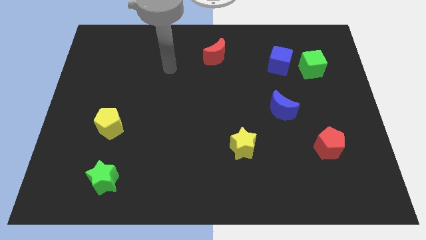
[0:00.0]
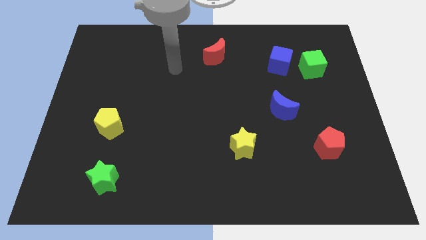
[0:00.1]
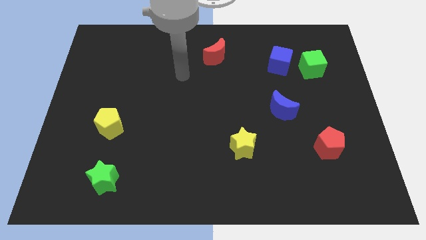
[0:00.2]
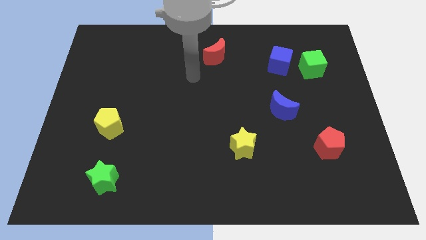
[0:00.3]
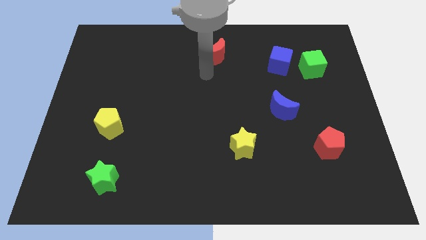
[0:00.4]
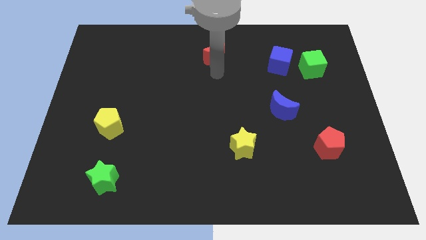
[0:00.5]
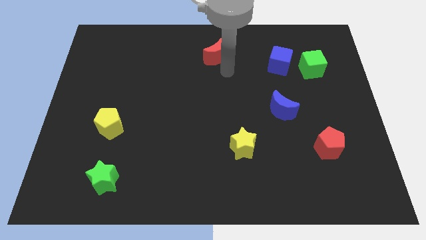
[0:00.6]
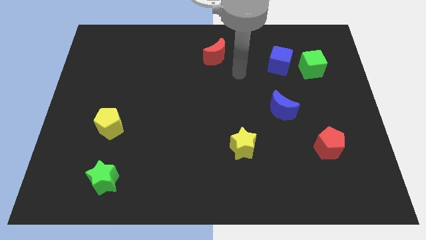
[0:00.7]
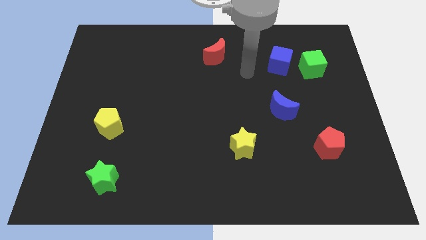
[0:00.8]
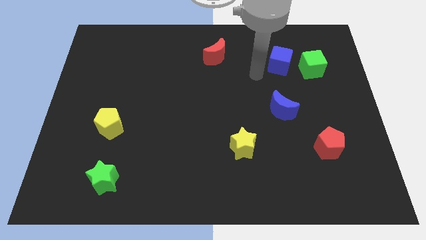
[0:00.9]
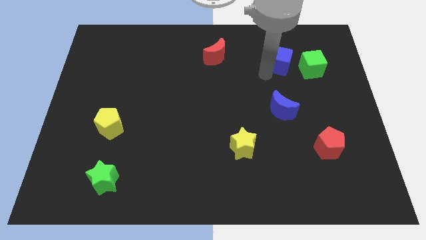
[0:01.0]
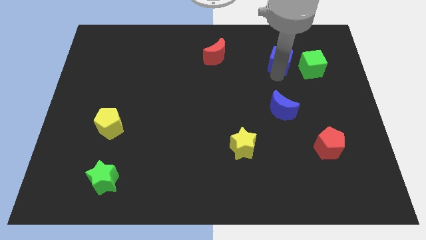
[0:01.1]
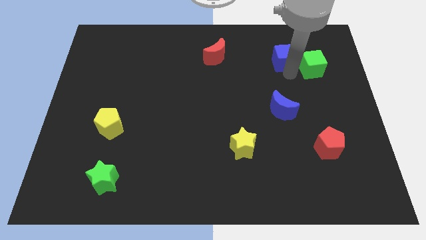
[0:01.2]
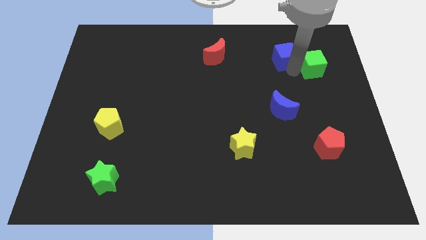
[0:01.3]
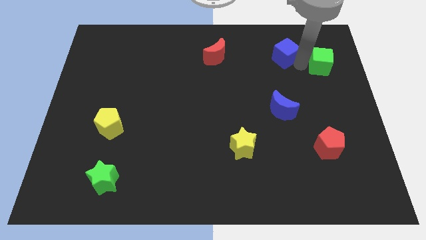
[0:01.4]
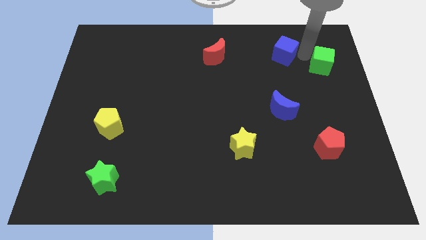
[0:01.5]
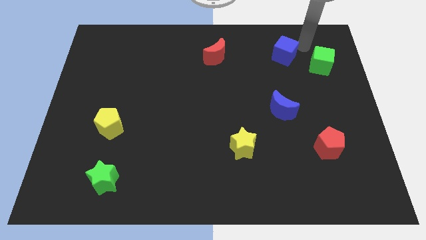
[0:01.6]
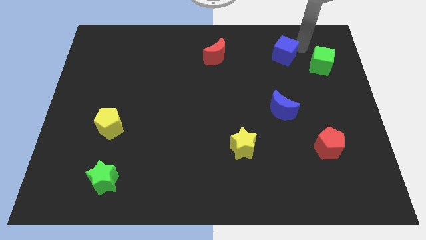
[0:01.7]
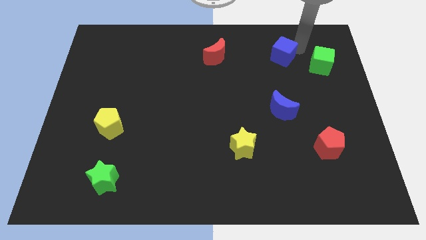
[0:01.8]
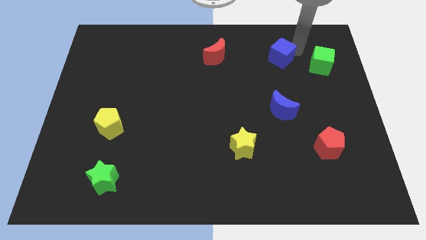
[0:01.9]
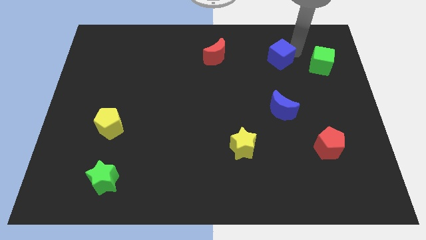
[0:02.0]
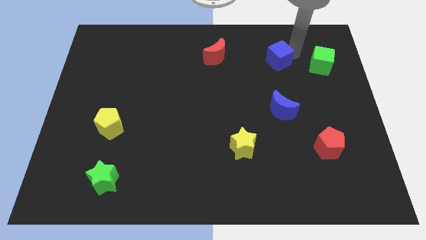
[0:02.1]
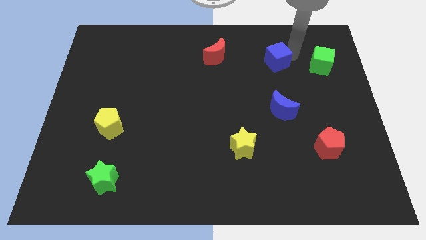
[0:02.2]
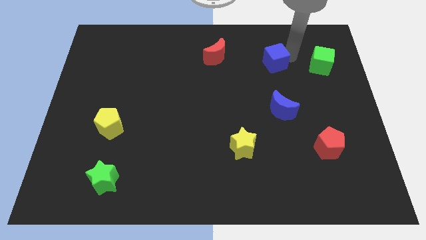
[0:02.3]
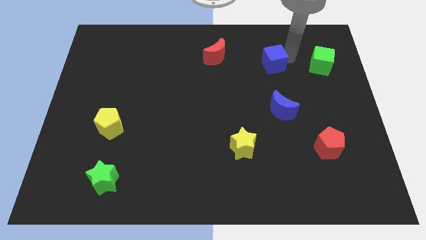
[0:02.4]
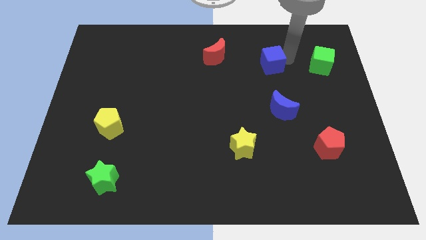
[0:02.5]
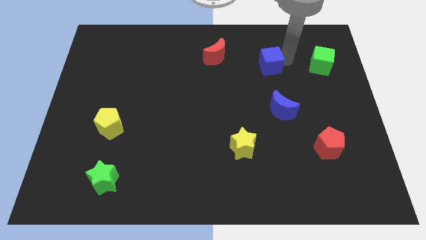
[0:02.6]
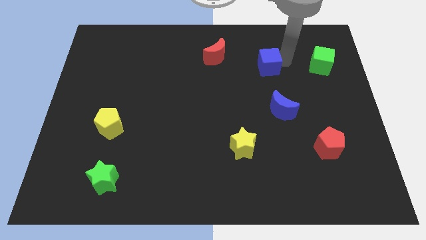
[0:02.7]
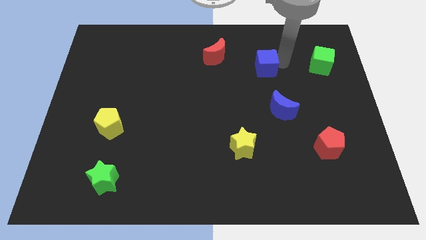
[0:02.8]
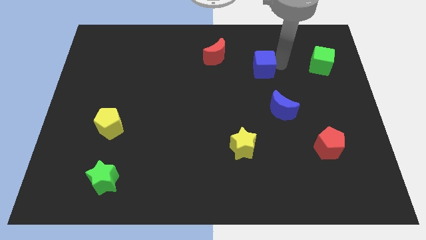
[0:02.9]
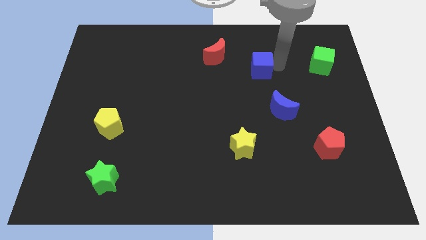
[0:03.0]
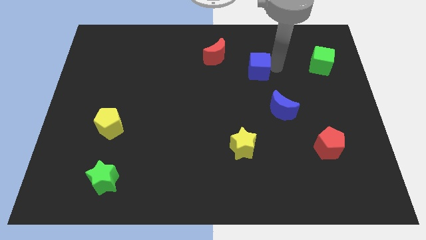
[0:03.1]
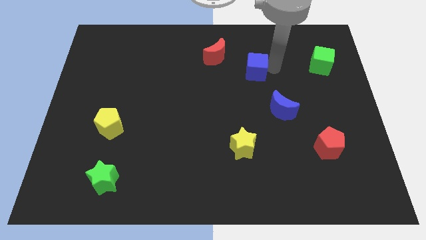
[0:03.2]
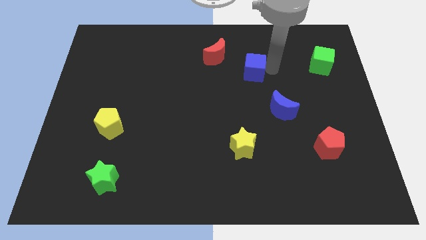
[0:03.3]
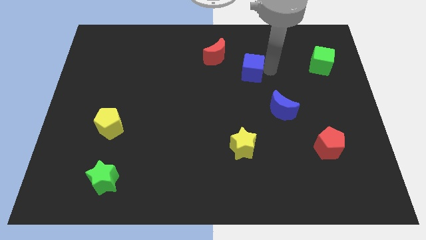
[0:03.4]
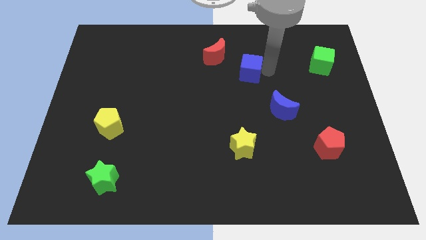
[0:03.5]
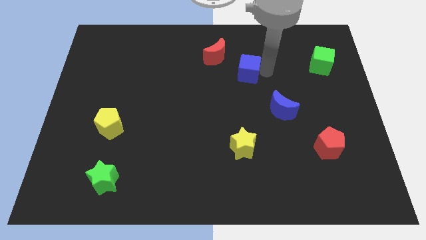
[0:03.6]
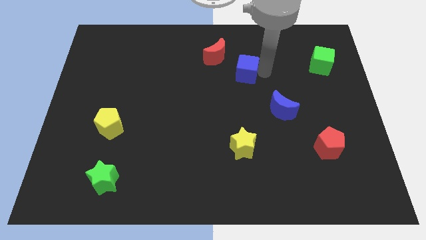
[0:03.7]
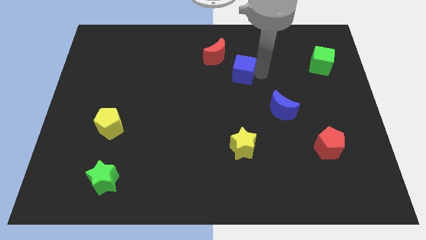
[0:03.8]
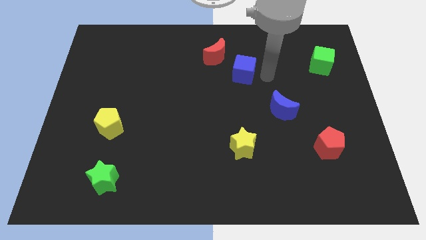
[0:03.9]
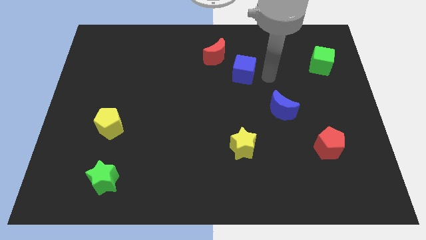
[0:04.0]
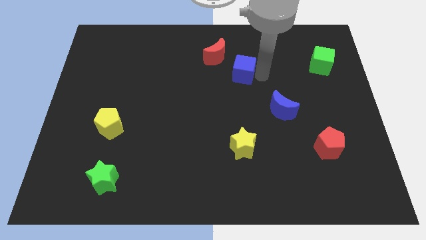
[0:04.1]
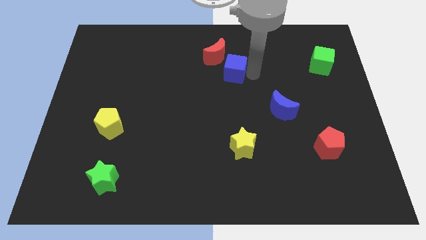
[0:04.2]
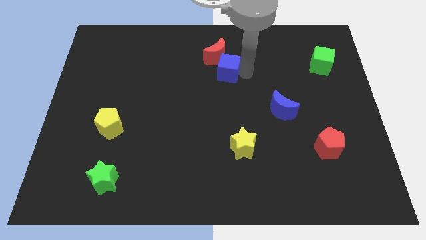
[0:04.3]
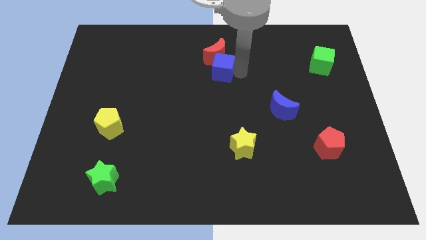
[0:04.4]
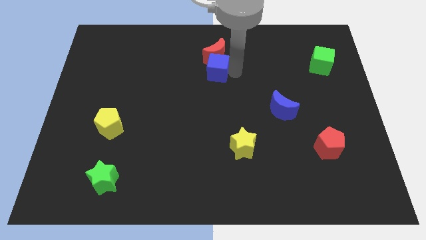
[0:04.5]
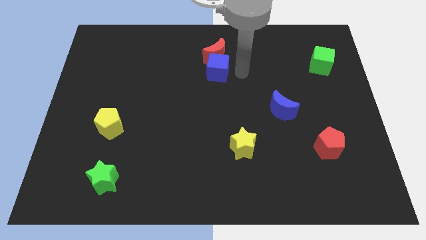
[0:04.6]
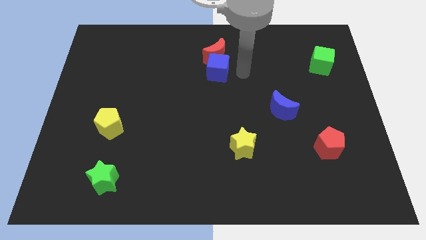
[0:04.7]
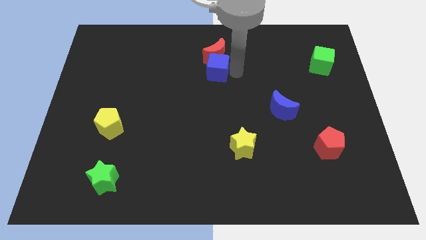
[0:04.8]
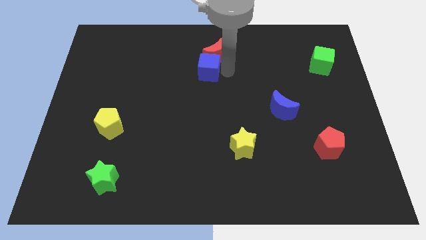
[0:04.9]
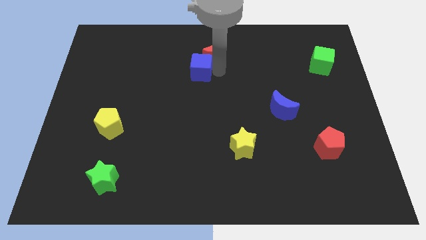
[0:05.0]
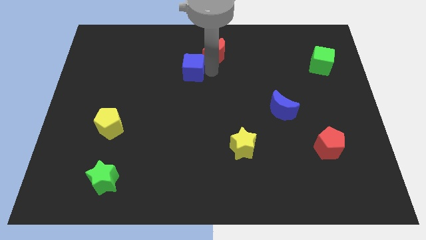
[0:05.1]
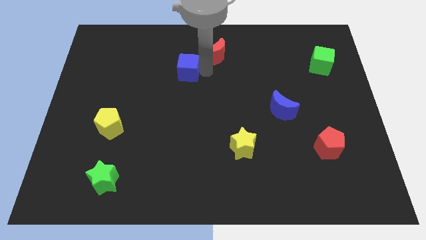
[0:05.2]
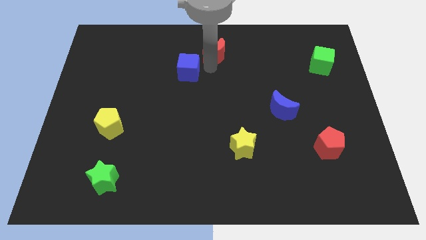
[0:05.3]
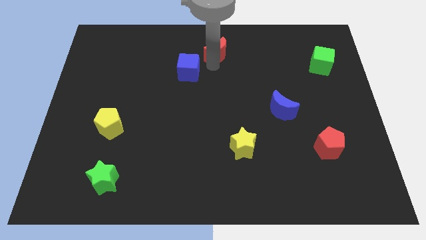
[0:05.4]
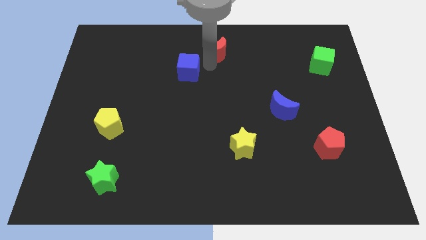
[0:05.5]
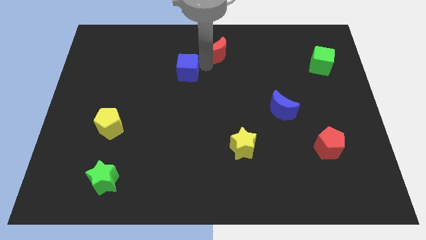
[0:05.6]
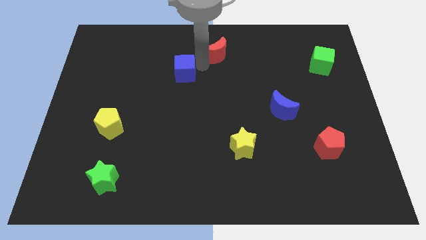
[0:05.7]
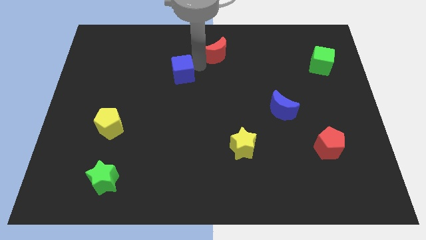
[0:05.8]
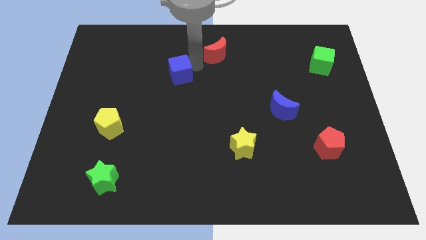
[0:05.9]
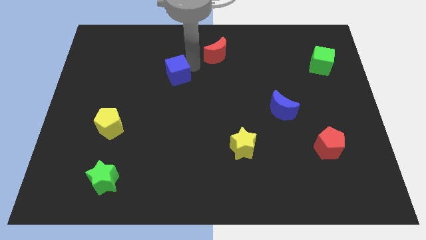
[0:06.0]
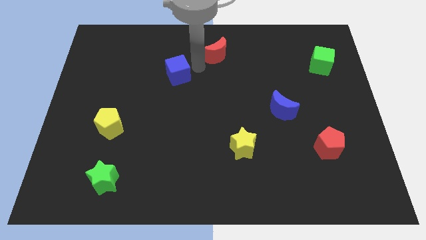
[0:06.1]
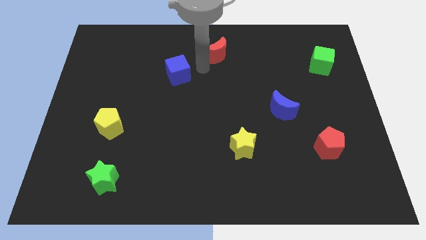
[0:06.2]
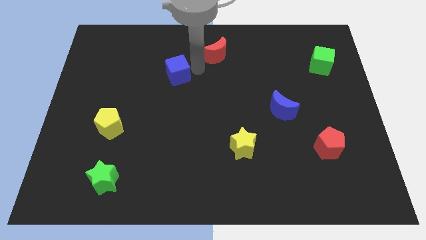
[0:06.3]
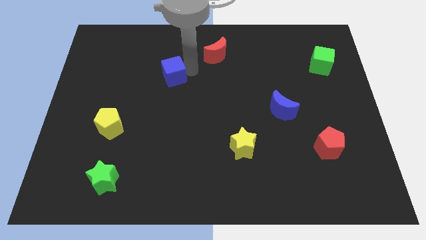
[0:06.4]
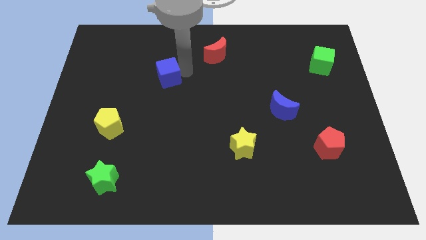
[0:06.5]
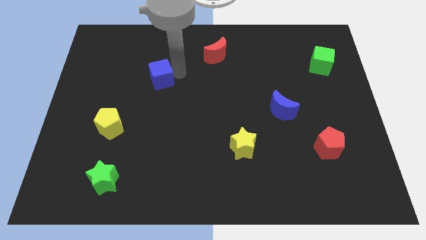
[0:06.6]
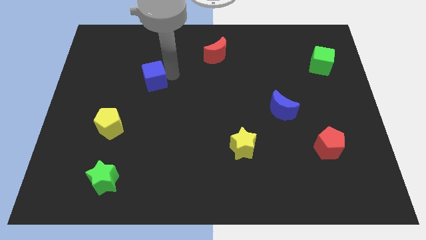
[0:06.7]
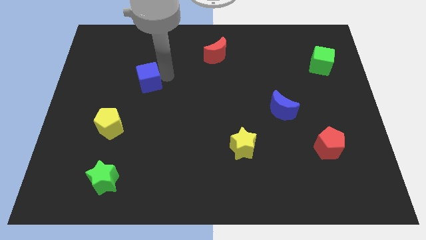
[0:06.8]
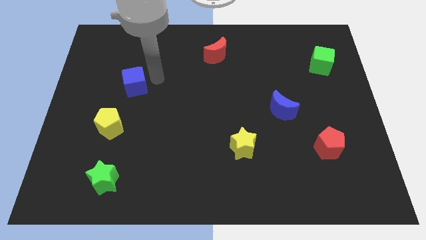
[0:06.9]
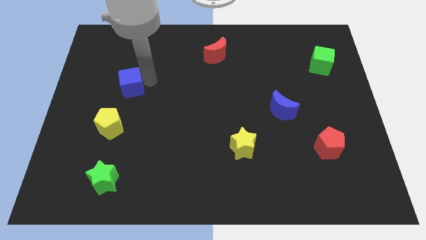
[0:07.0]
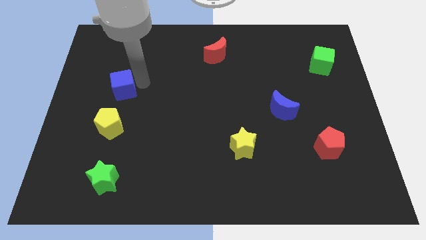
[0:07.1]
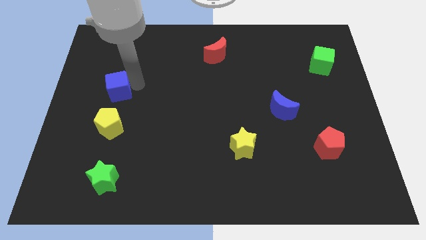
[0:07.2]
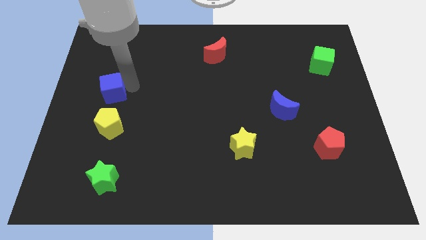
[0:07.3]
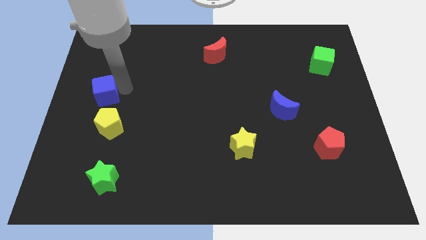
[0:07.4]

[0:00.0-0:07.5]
put the blue cube to the center left

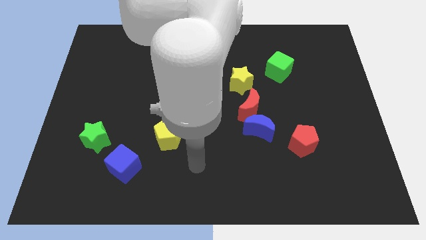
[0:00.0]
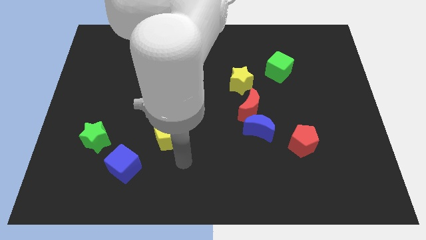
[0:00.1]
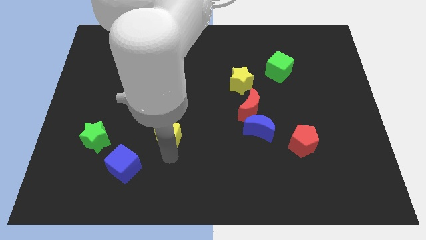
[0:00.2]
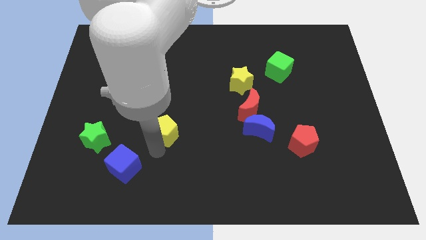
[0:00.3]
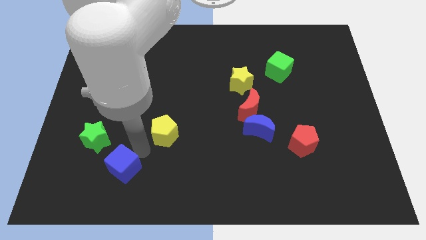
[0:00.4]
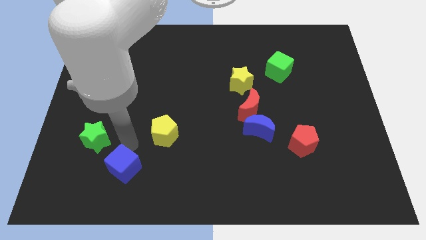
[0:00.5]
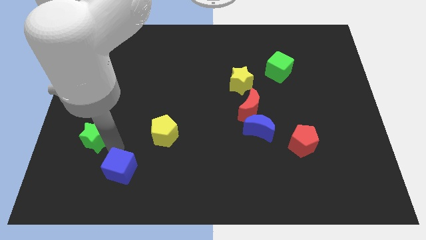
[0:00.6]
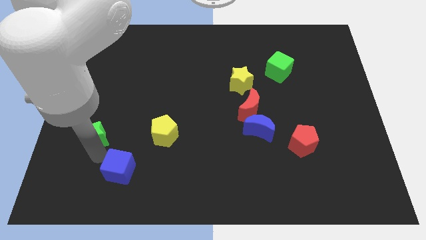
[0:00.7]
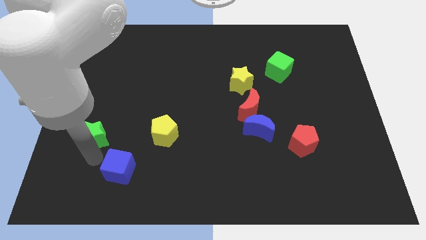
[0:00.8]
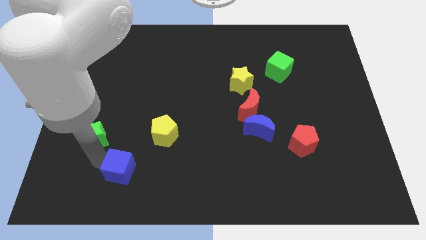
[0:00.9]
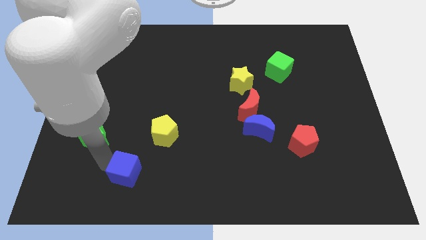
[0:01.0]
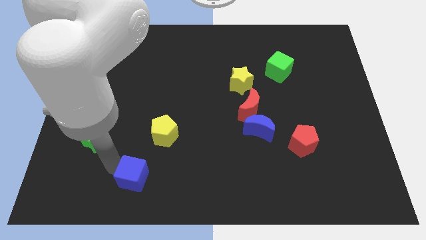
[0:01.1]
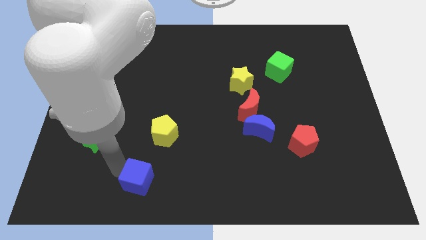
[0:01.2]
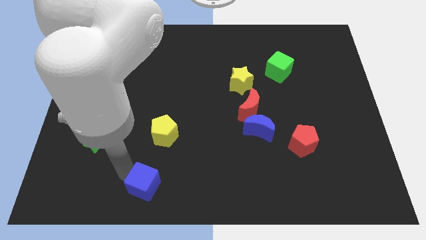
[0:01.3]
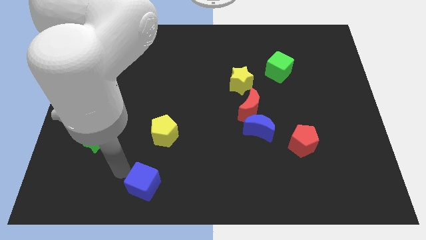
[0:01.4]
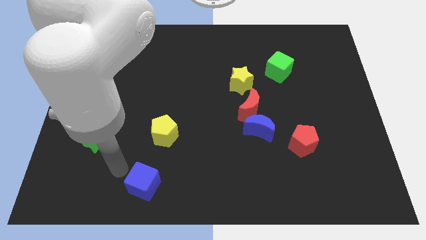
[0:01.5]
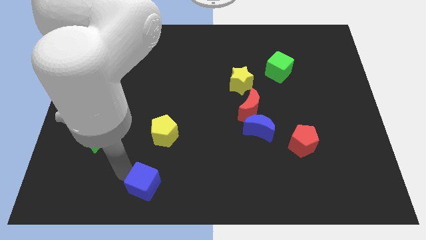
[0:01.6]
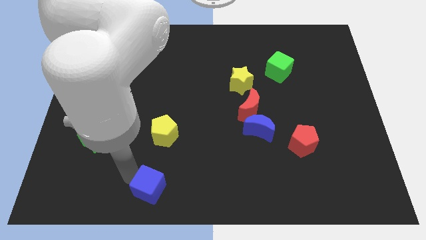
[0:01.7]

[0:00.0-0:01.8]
slide the blue cube to the bottom side
